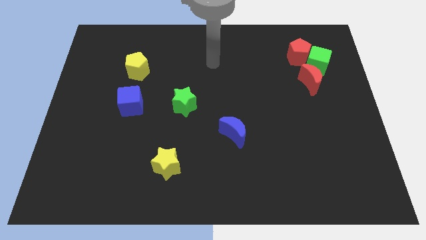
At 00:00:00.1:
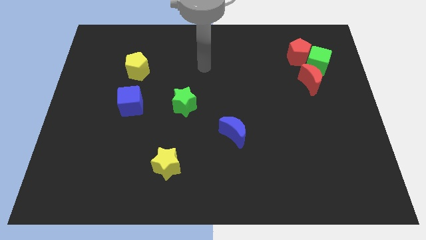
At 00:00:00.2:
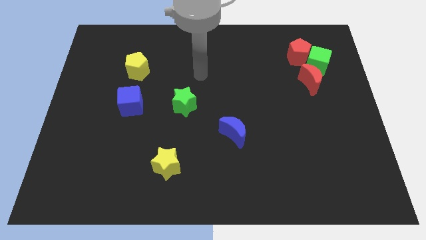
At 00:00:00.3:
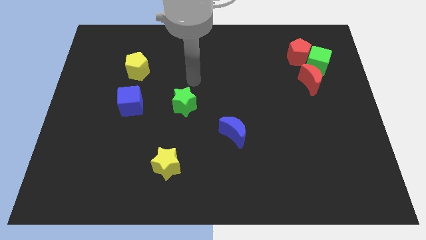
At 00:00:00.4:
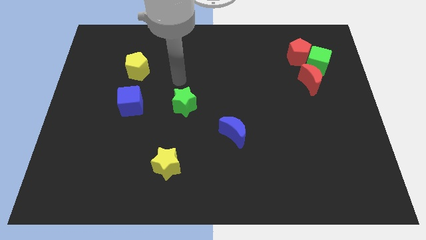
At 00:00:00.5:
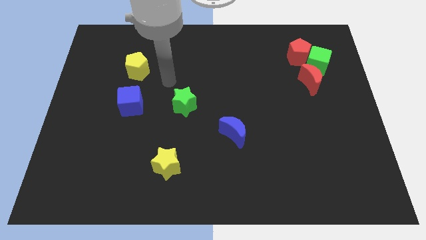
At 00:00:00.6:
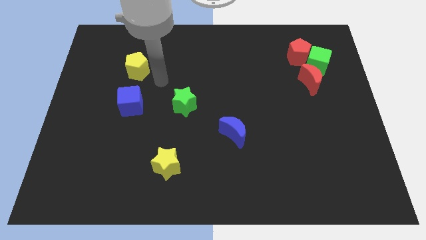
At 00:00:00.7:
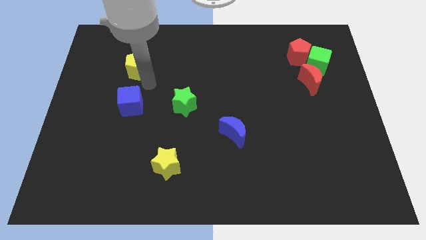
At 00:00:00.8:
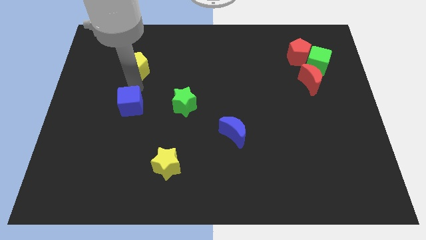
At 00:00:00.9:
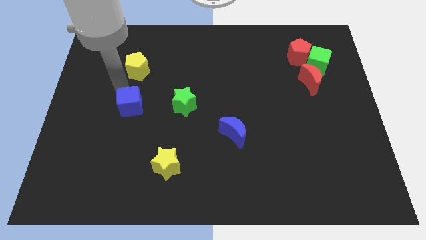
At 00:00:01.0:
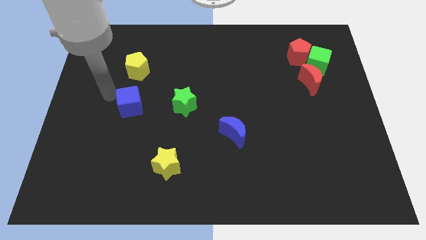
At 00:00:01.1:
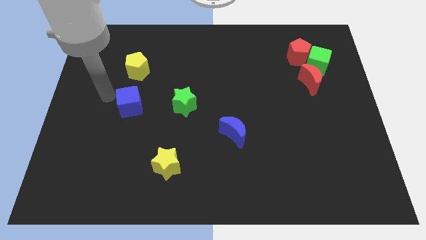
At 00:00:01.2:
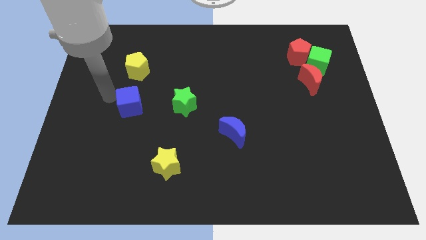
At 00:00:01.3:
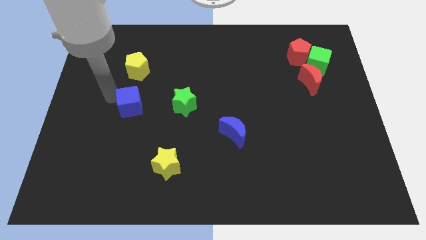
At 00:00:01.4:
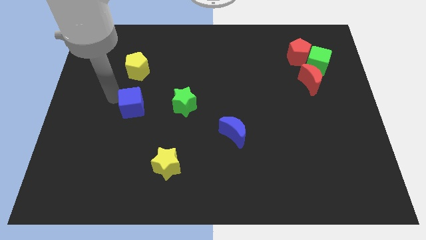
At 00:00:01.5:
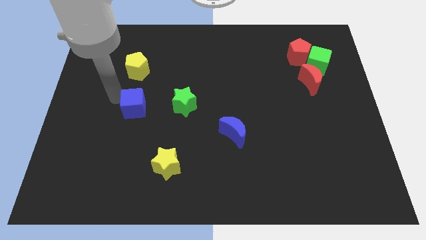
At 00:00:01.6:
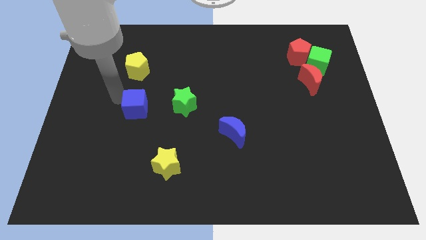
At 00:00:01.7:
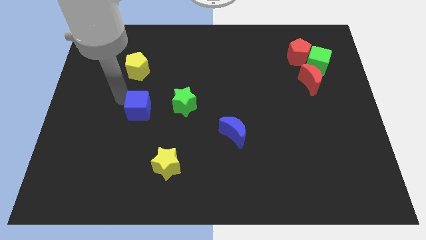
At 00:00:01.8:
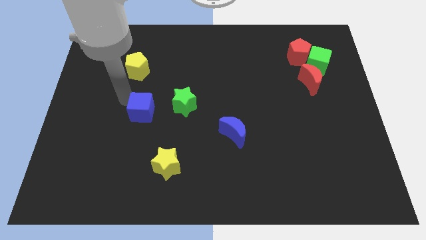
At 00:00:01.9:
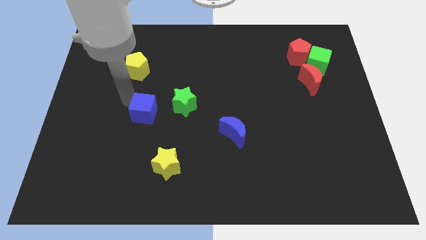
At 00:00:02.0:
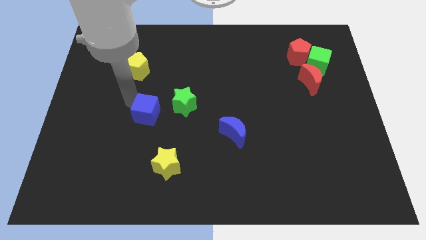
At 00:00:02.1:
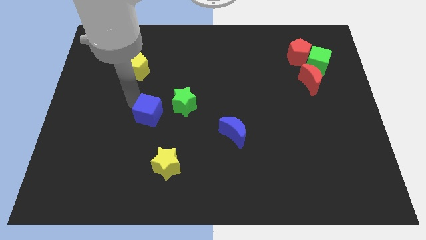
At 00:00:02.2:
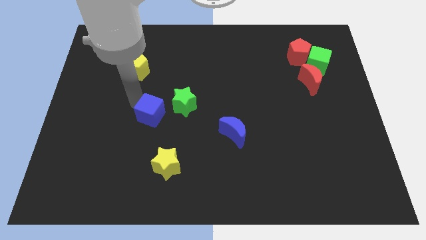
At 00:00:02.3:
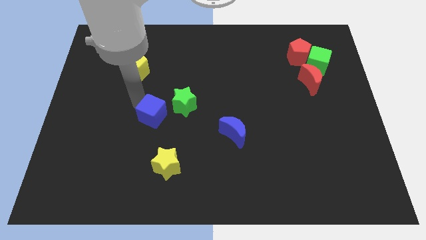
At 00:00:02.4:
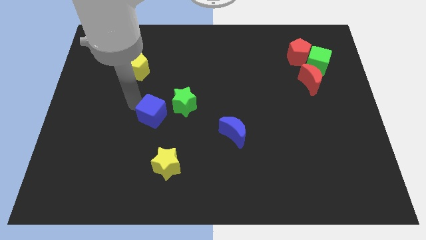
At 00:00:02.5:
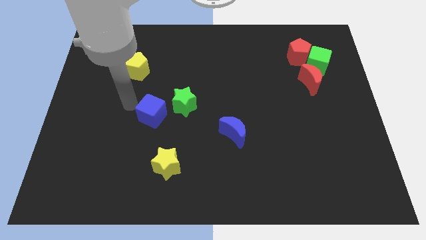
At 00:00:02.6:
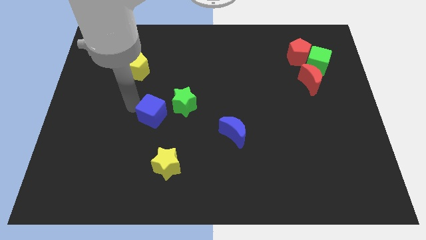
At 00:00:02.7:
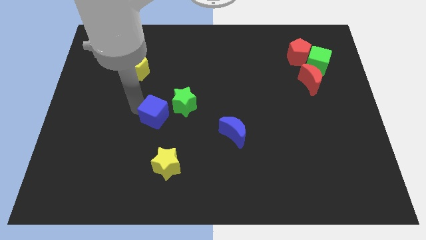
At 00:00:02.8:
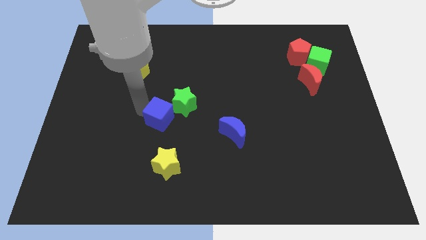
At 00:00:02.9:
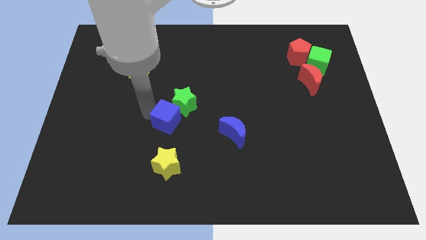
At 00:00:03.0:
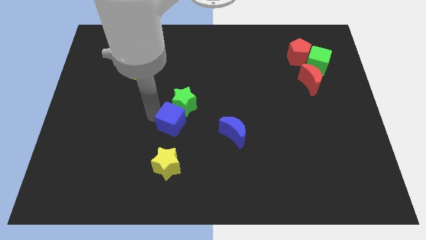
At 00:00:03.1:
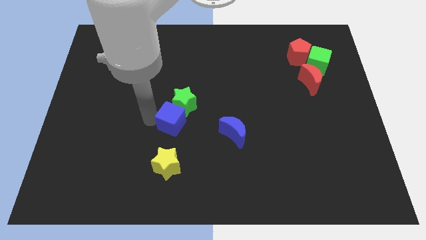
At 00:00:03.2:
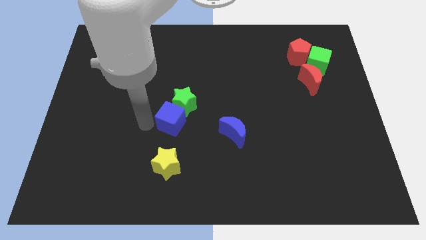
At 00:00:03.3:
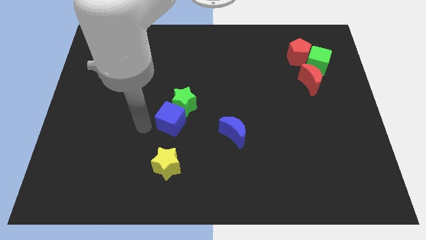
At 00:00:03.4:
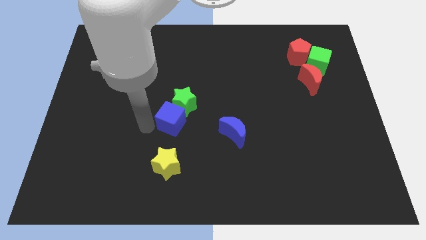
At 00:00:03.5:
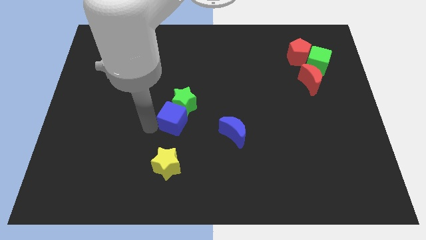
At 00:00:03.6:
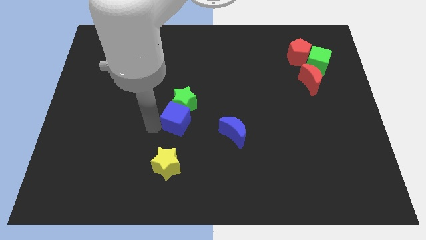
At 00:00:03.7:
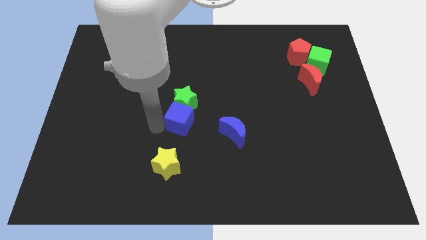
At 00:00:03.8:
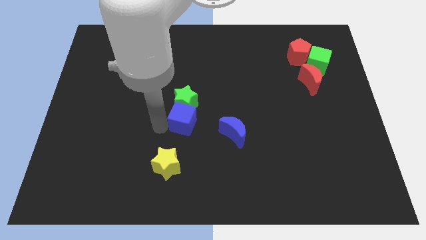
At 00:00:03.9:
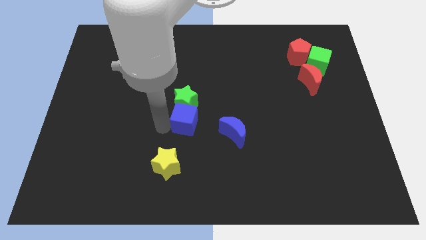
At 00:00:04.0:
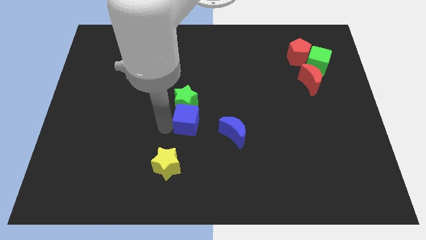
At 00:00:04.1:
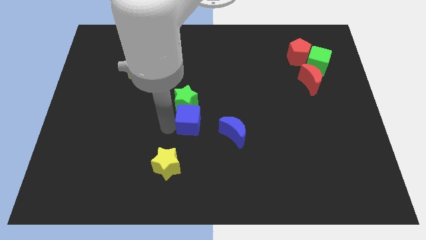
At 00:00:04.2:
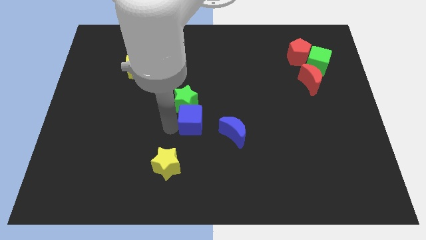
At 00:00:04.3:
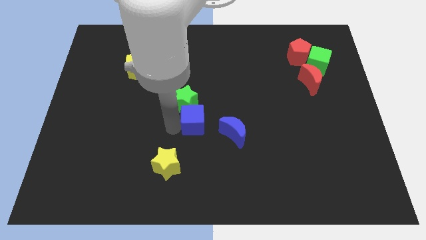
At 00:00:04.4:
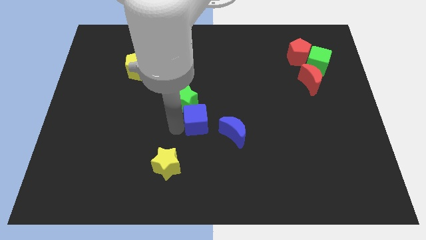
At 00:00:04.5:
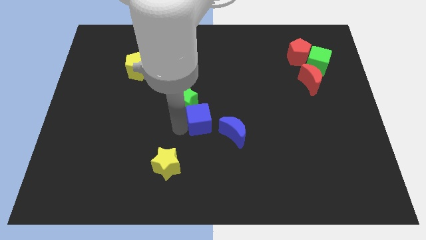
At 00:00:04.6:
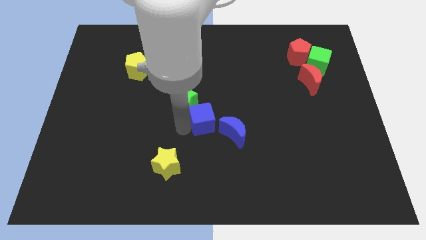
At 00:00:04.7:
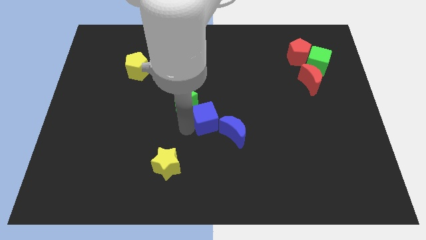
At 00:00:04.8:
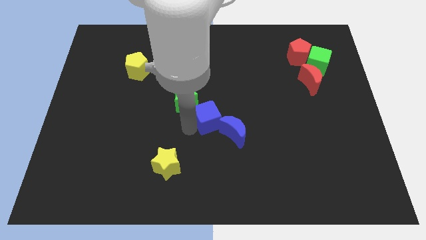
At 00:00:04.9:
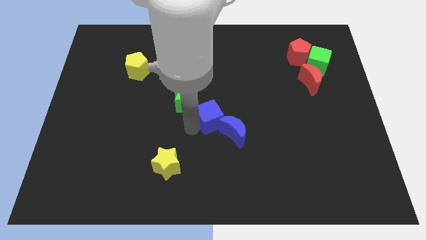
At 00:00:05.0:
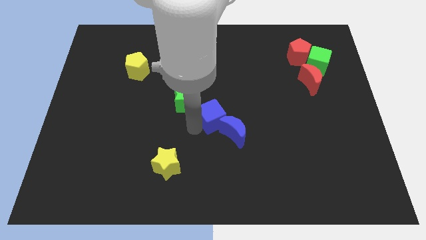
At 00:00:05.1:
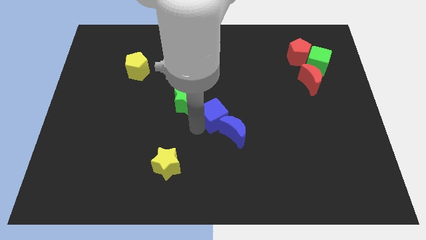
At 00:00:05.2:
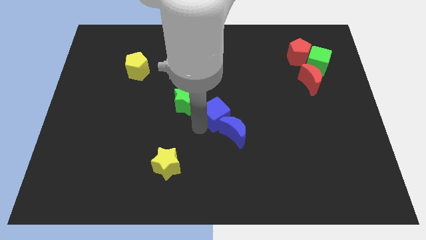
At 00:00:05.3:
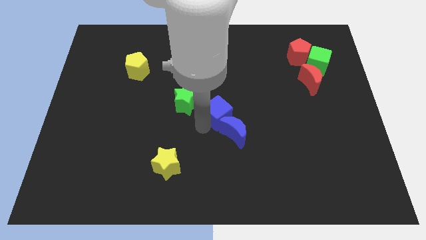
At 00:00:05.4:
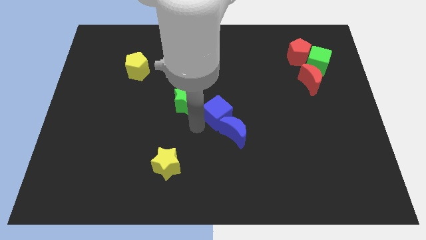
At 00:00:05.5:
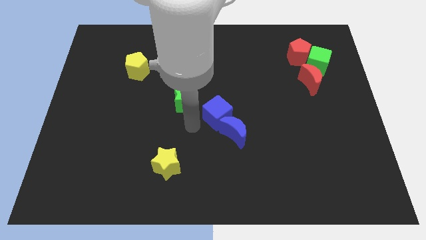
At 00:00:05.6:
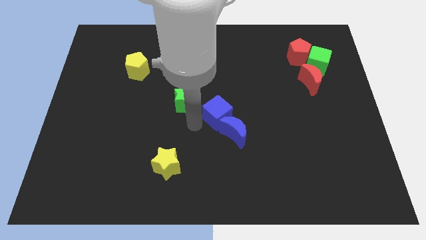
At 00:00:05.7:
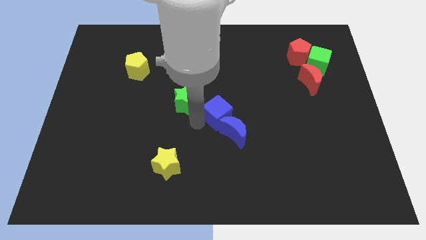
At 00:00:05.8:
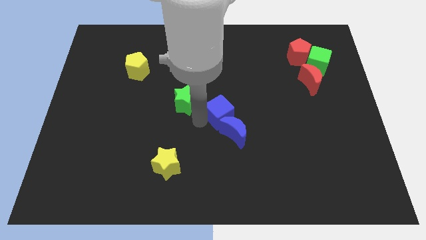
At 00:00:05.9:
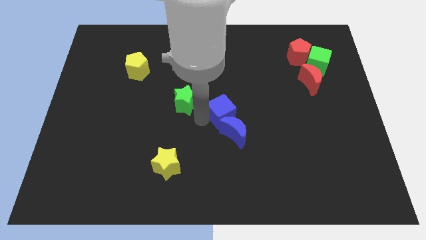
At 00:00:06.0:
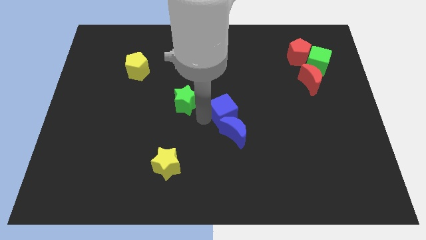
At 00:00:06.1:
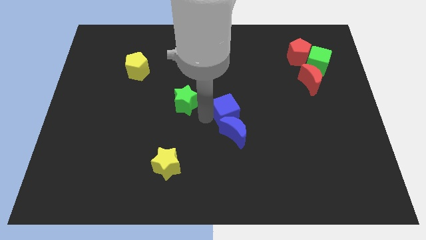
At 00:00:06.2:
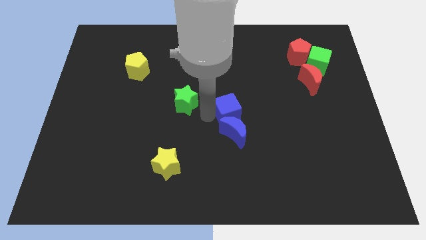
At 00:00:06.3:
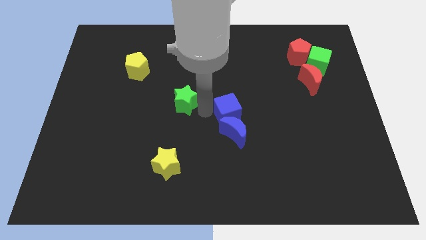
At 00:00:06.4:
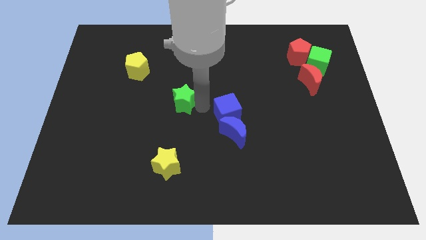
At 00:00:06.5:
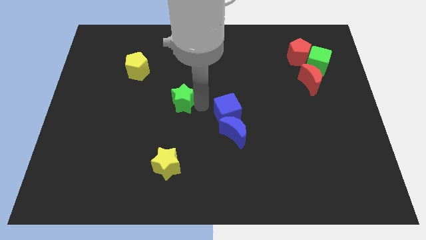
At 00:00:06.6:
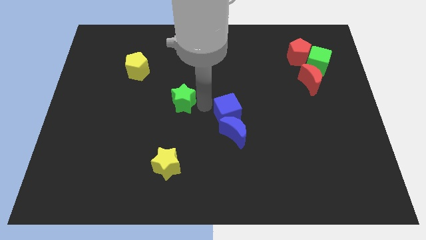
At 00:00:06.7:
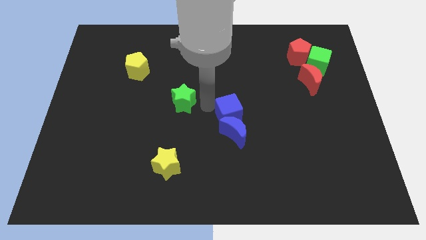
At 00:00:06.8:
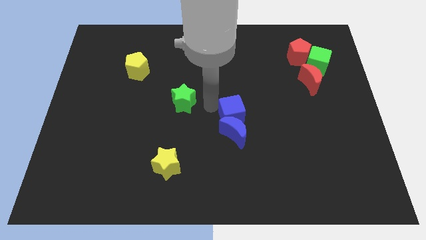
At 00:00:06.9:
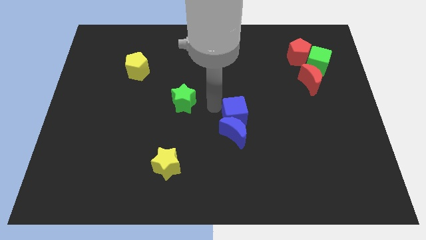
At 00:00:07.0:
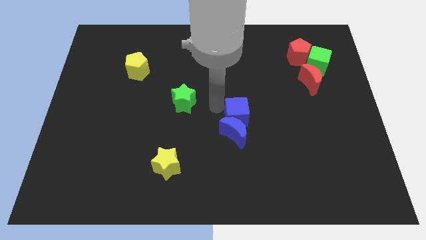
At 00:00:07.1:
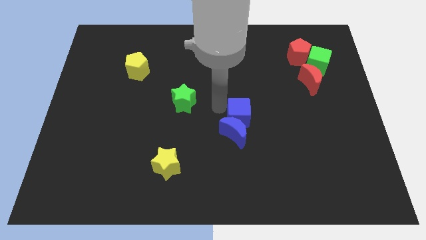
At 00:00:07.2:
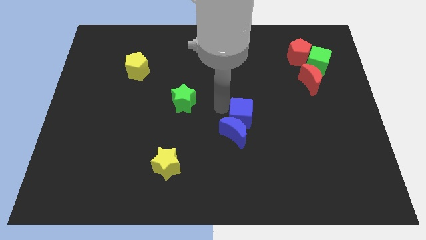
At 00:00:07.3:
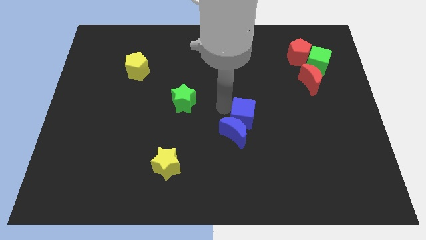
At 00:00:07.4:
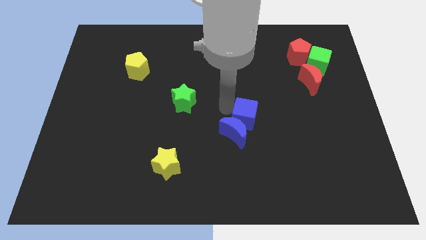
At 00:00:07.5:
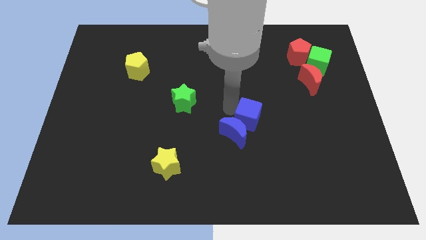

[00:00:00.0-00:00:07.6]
put the blue cube to the right side of the blue moon
